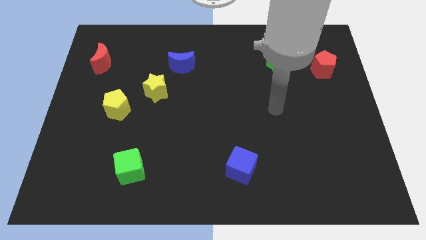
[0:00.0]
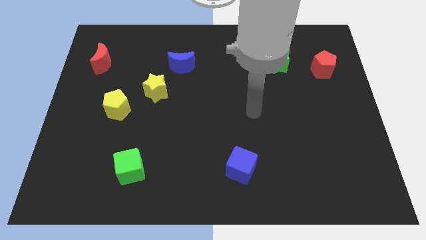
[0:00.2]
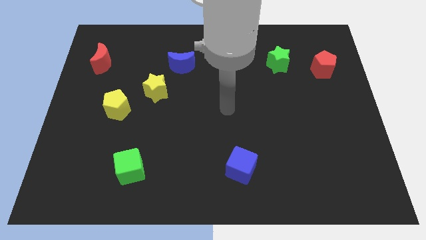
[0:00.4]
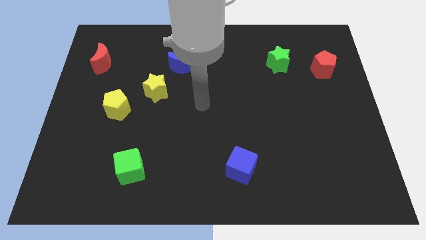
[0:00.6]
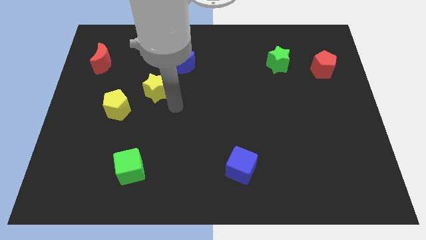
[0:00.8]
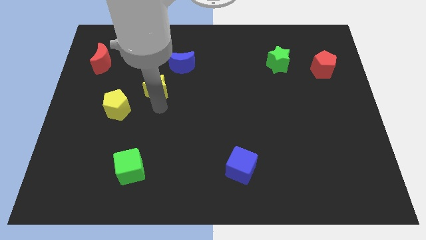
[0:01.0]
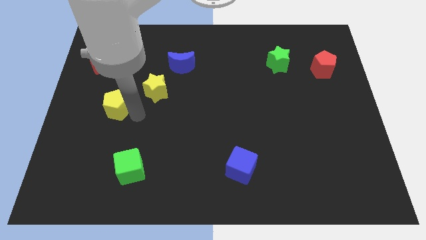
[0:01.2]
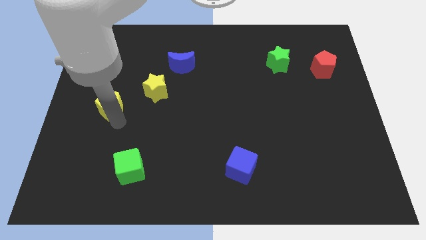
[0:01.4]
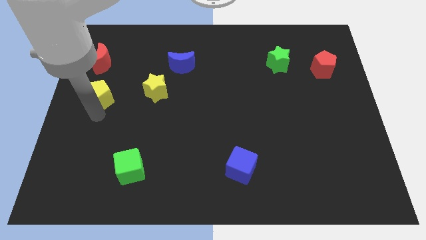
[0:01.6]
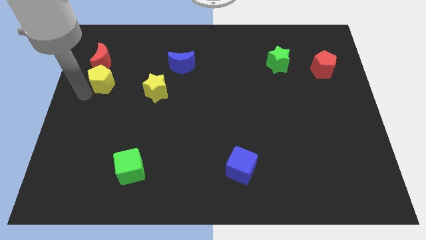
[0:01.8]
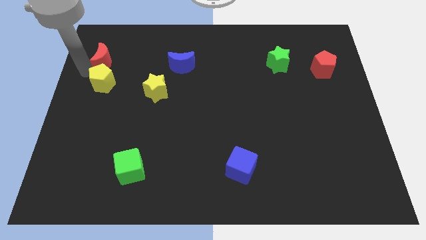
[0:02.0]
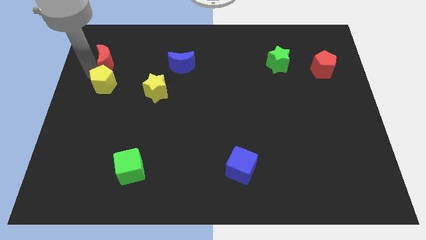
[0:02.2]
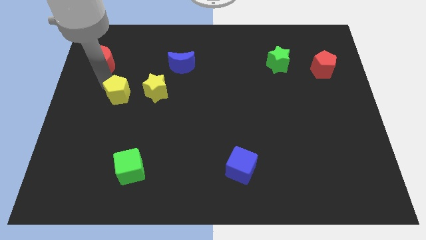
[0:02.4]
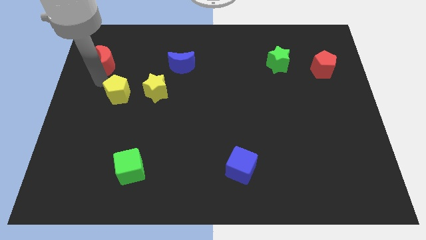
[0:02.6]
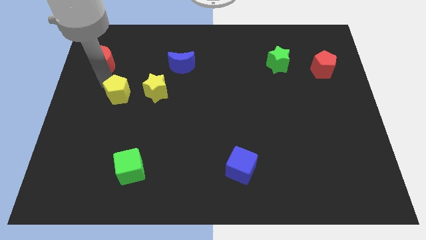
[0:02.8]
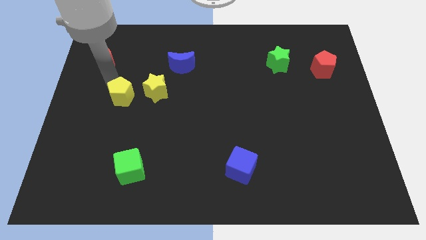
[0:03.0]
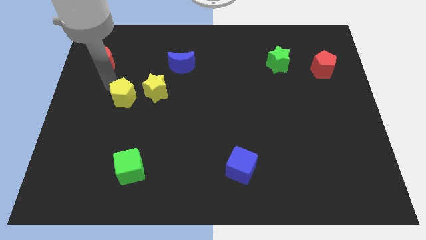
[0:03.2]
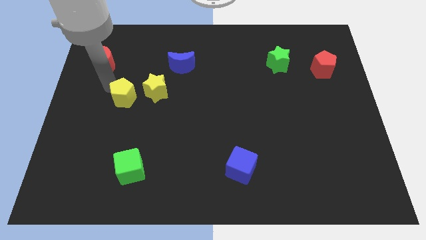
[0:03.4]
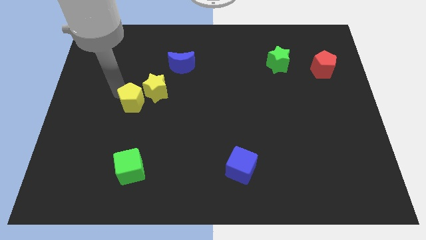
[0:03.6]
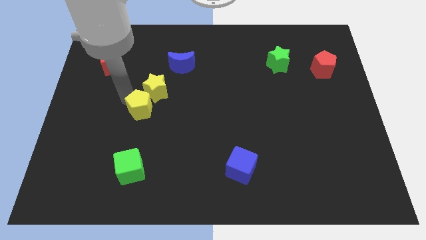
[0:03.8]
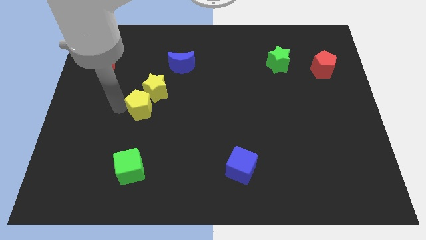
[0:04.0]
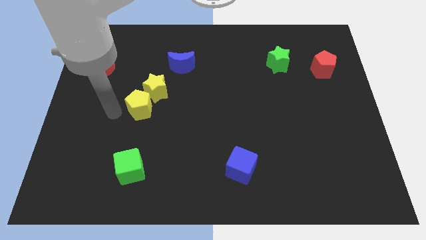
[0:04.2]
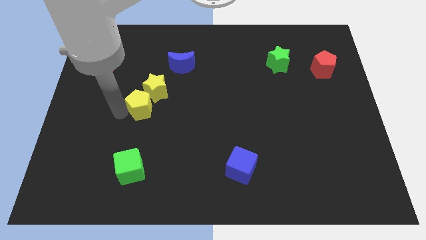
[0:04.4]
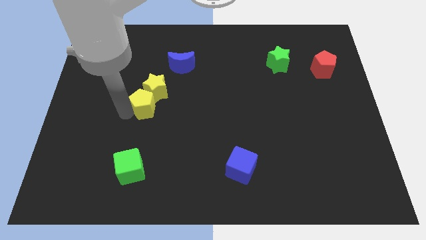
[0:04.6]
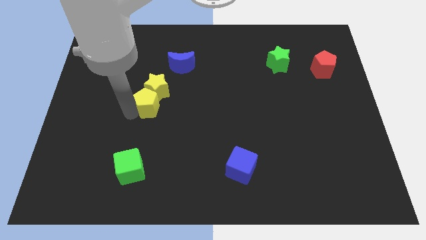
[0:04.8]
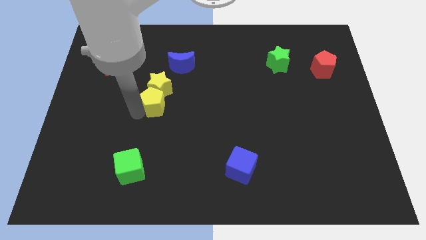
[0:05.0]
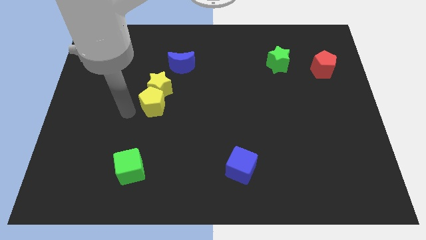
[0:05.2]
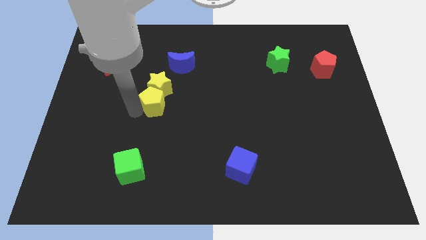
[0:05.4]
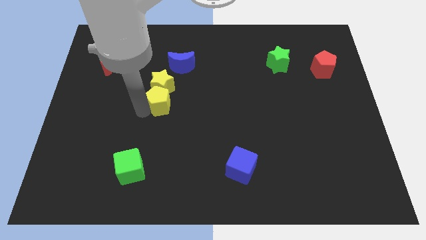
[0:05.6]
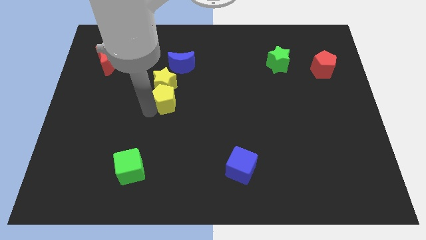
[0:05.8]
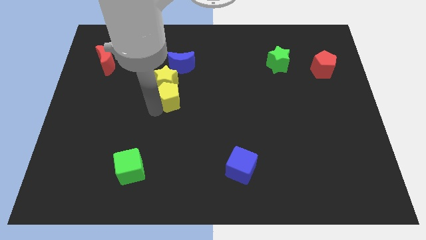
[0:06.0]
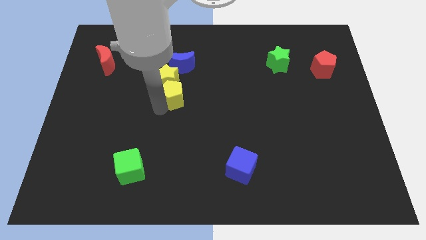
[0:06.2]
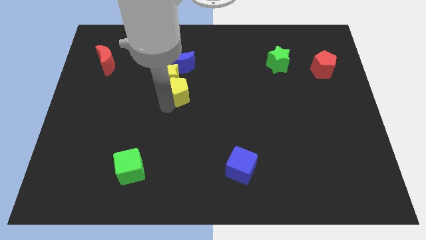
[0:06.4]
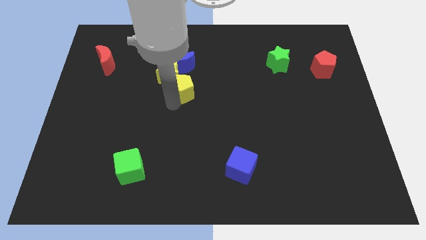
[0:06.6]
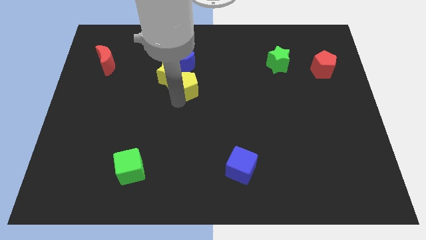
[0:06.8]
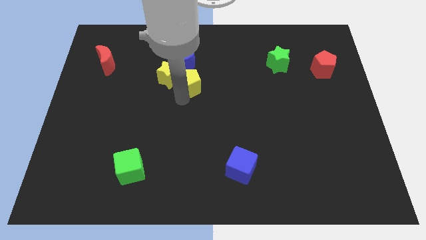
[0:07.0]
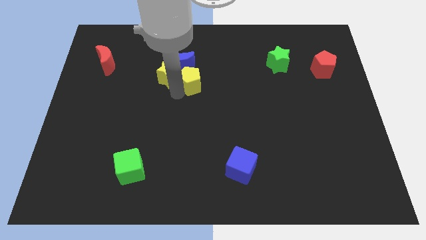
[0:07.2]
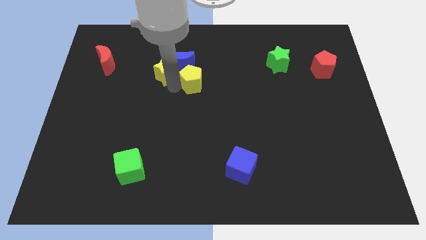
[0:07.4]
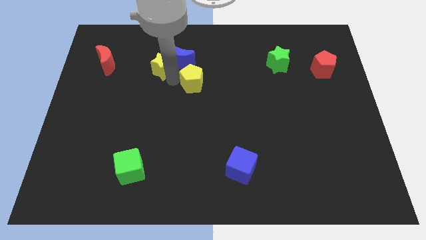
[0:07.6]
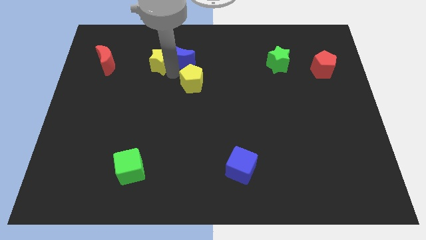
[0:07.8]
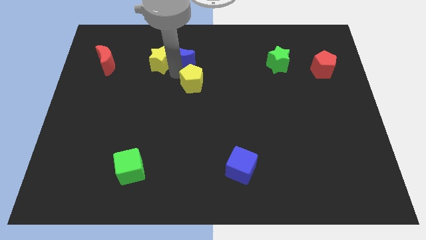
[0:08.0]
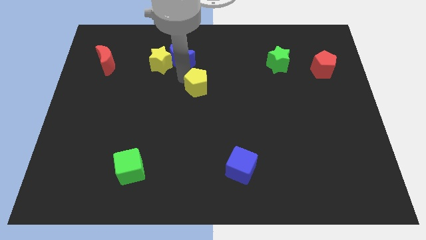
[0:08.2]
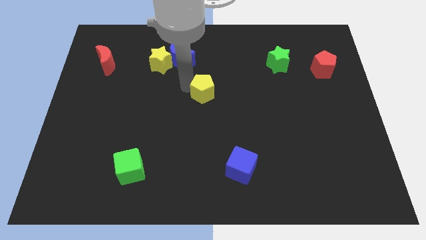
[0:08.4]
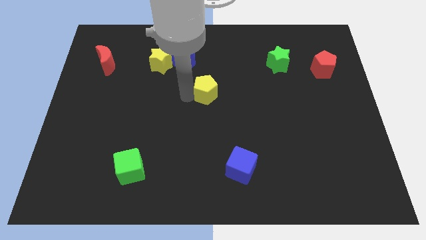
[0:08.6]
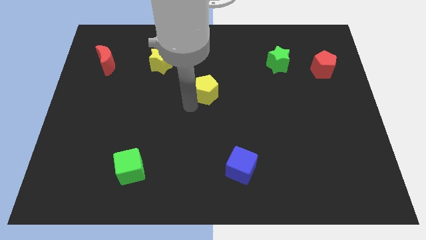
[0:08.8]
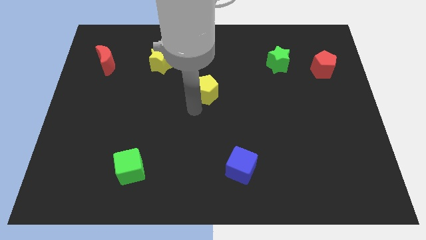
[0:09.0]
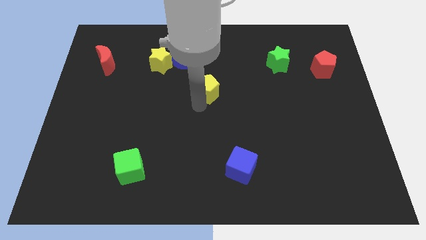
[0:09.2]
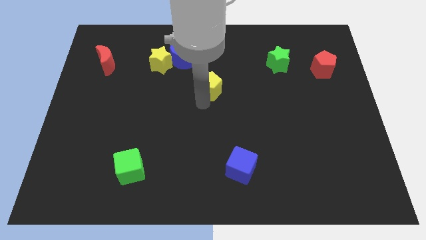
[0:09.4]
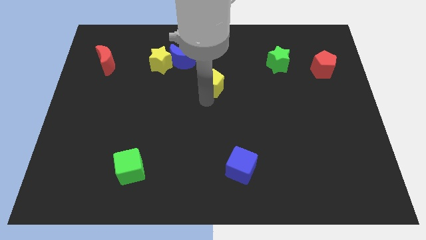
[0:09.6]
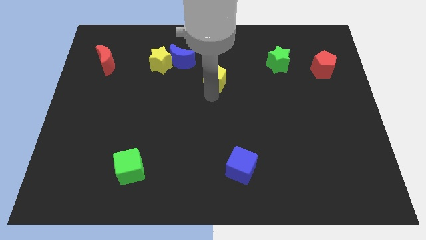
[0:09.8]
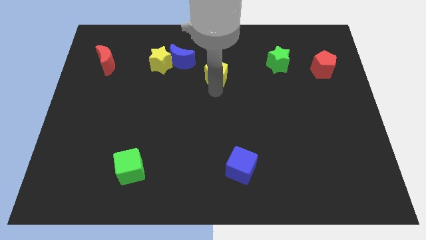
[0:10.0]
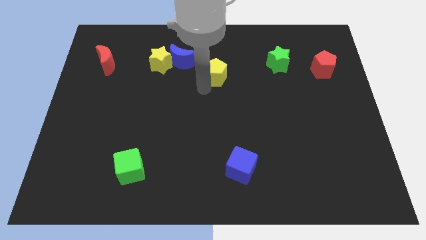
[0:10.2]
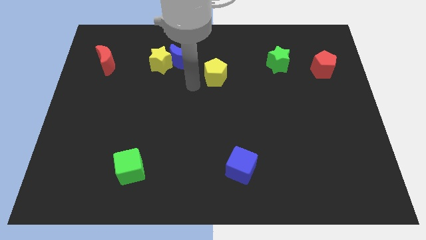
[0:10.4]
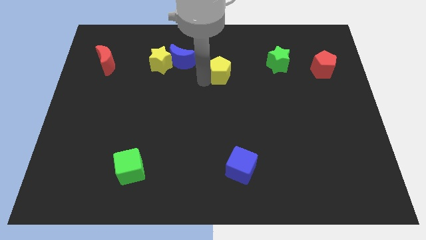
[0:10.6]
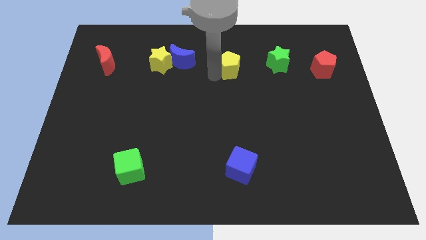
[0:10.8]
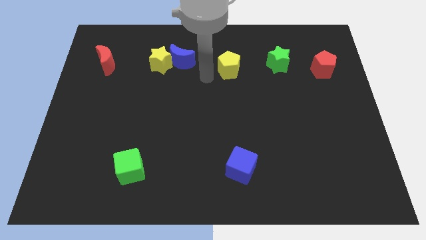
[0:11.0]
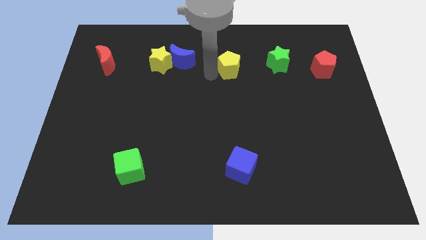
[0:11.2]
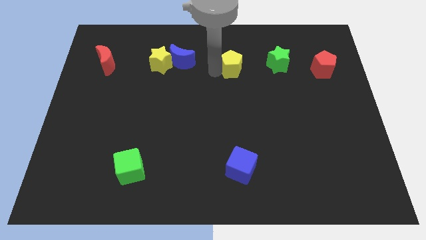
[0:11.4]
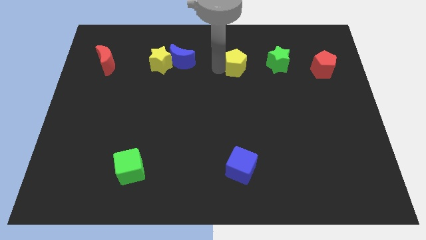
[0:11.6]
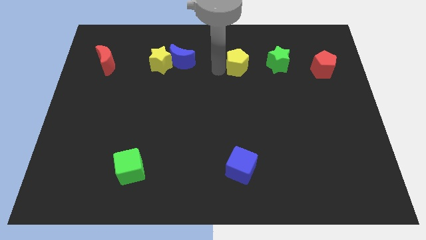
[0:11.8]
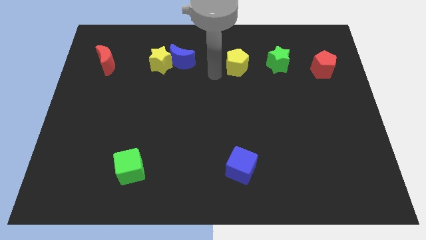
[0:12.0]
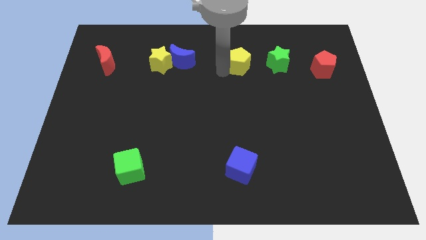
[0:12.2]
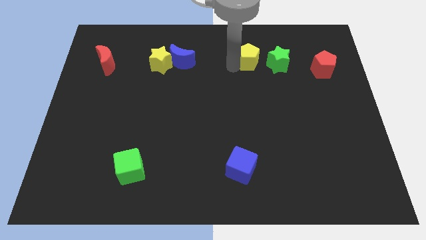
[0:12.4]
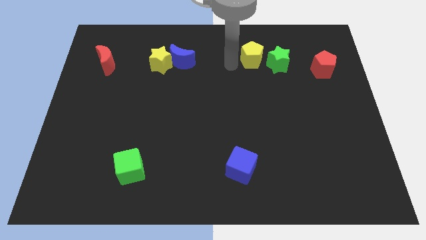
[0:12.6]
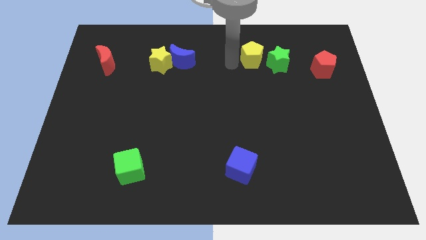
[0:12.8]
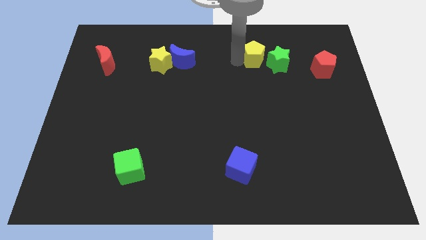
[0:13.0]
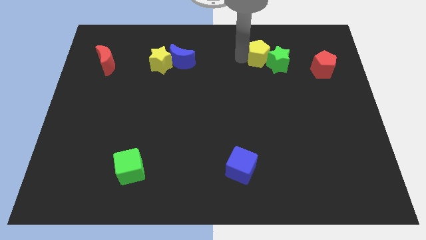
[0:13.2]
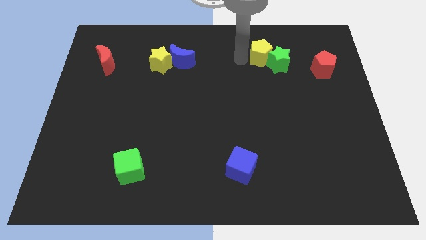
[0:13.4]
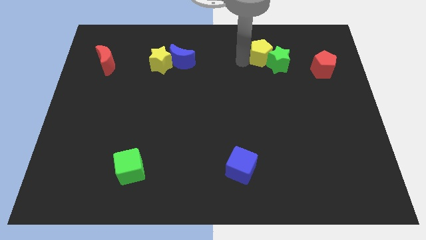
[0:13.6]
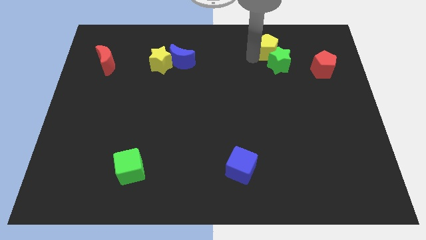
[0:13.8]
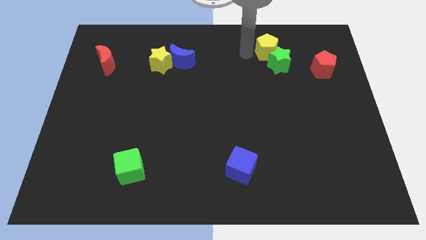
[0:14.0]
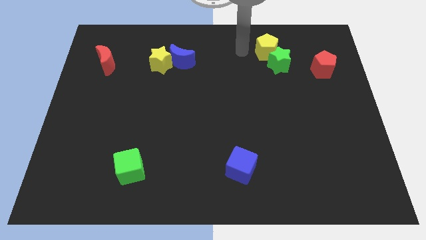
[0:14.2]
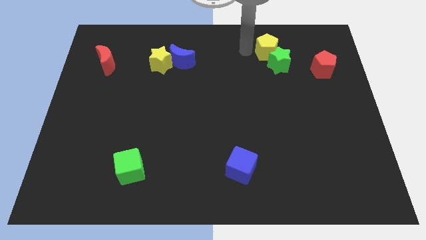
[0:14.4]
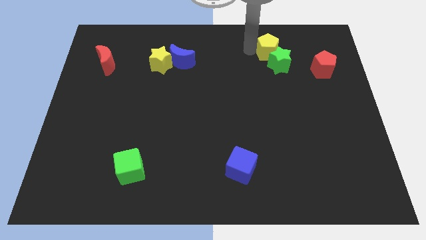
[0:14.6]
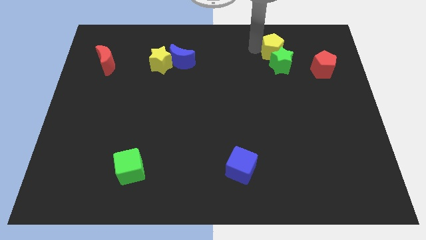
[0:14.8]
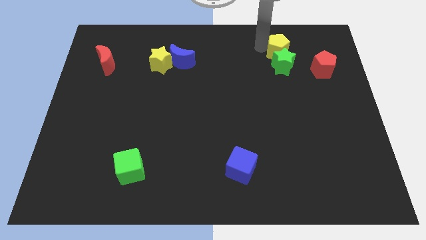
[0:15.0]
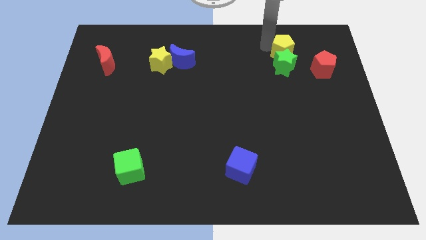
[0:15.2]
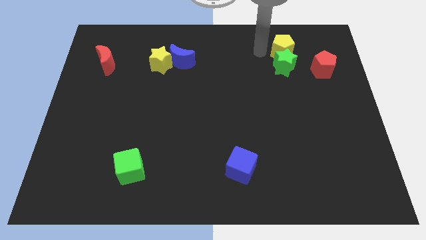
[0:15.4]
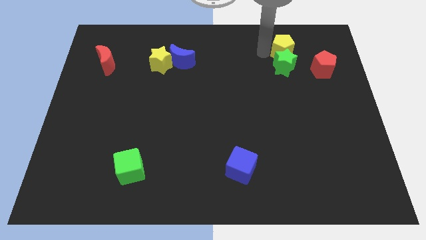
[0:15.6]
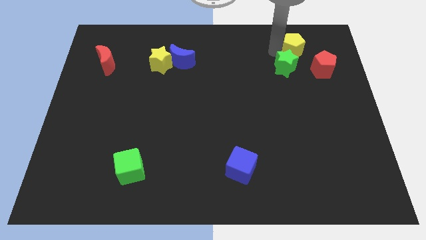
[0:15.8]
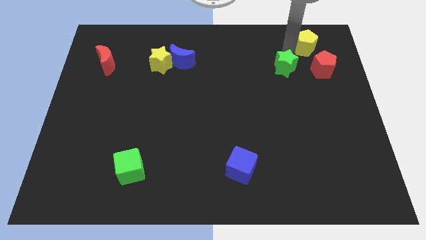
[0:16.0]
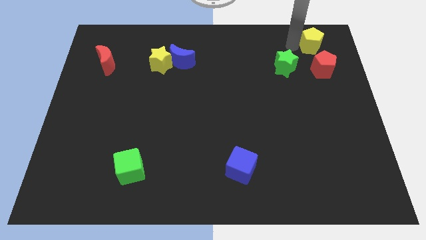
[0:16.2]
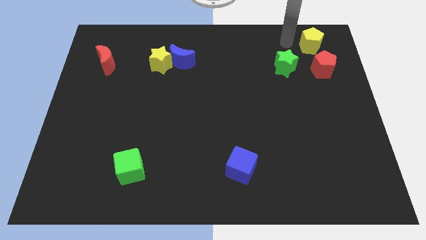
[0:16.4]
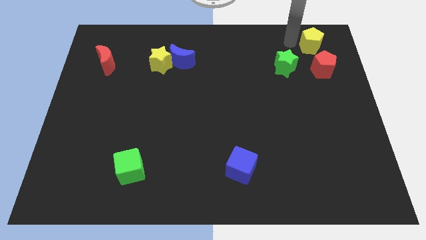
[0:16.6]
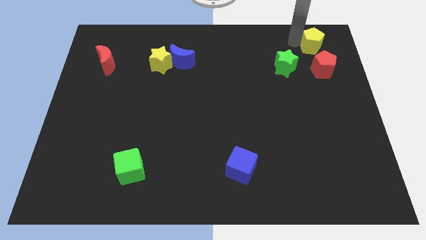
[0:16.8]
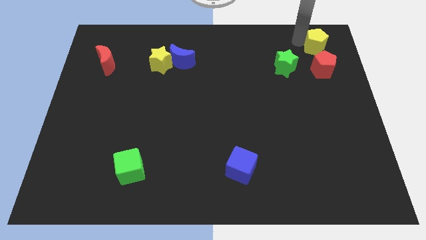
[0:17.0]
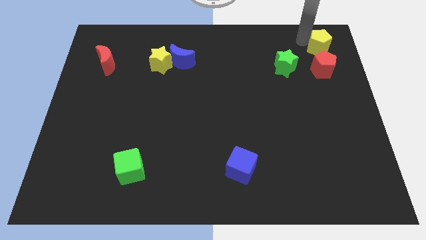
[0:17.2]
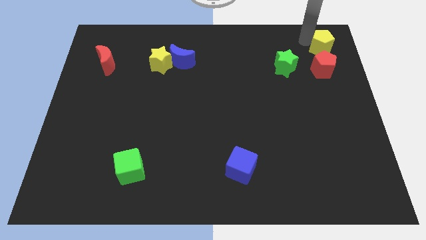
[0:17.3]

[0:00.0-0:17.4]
slide the yellow pentagon to the top right of the board
